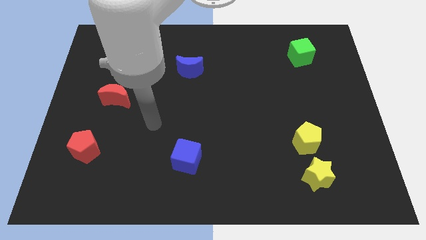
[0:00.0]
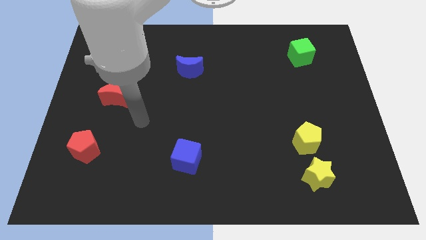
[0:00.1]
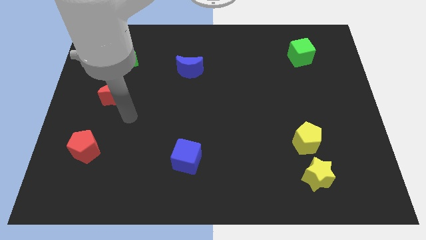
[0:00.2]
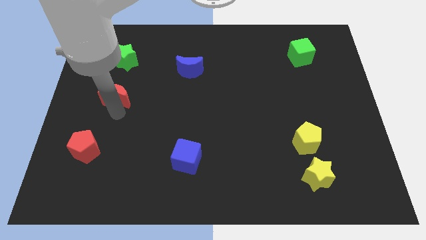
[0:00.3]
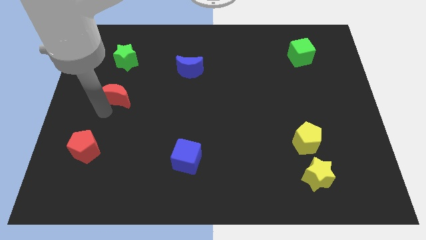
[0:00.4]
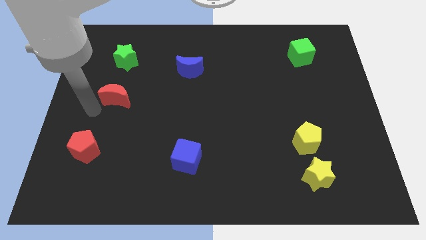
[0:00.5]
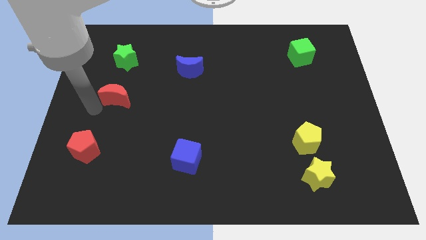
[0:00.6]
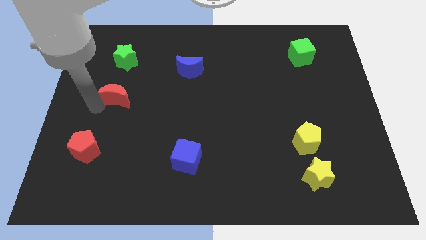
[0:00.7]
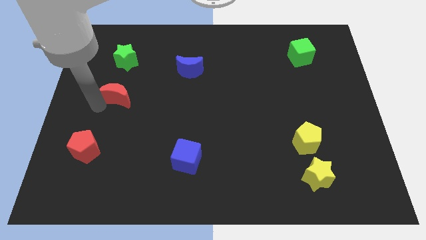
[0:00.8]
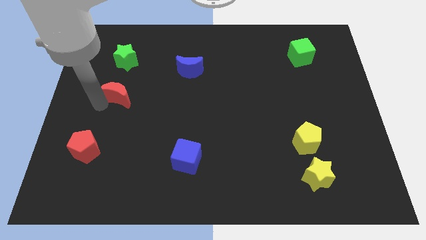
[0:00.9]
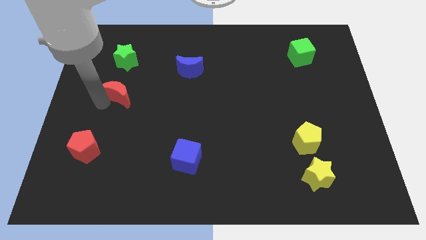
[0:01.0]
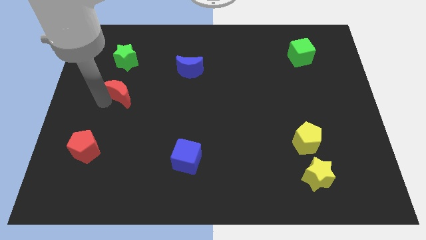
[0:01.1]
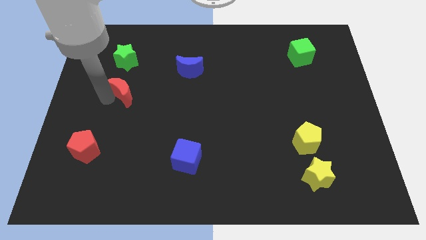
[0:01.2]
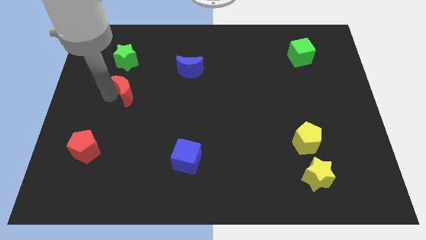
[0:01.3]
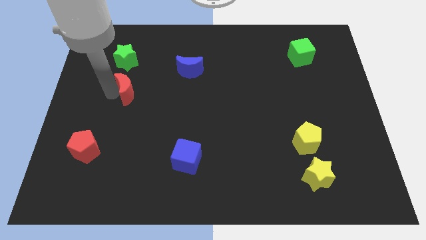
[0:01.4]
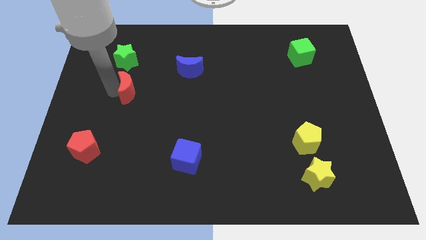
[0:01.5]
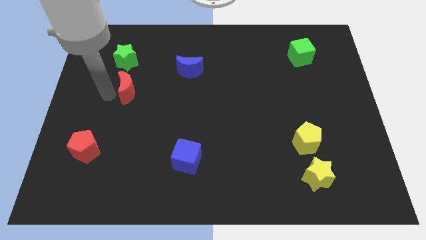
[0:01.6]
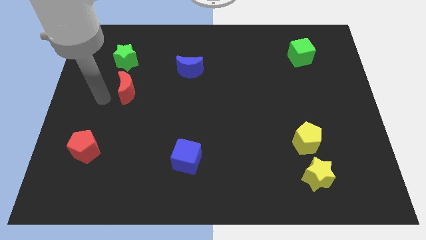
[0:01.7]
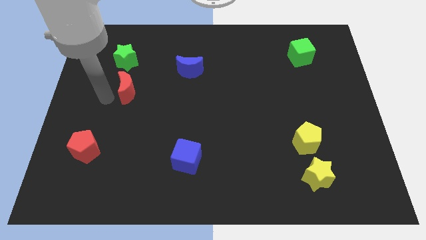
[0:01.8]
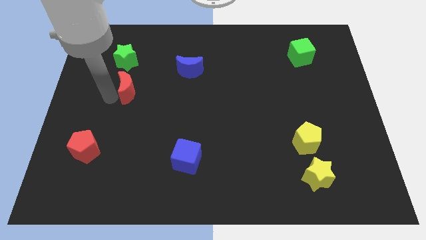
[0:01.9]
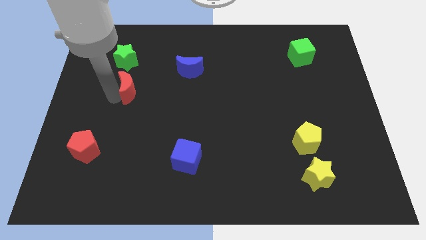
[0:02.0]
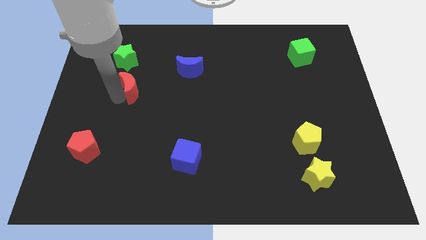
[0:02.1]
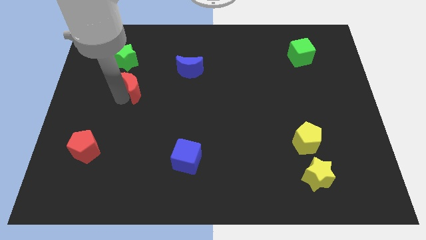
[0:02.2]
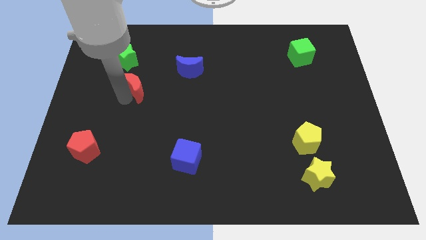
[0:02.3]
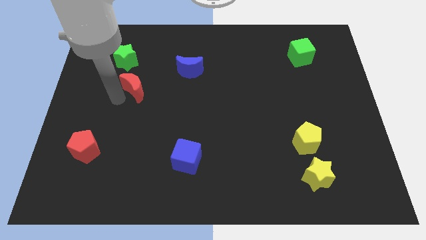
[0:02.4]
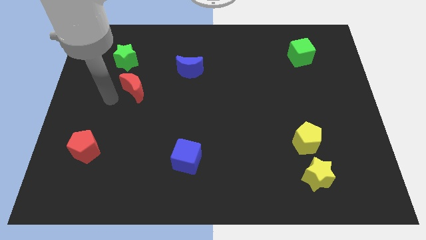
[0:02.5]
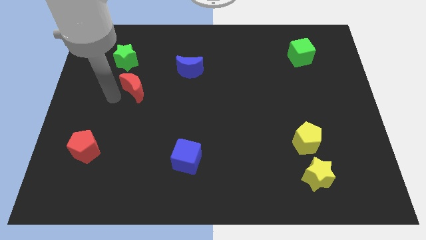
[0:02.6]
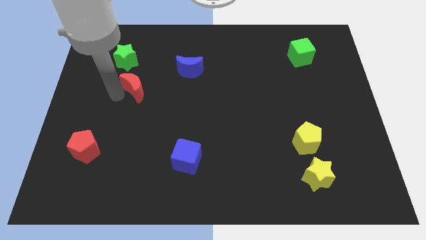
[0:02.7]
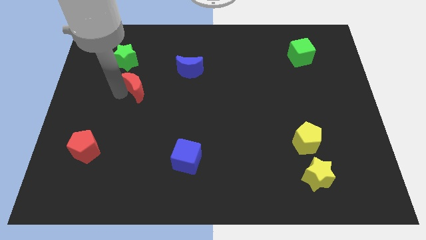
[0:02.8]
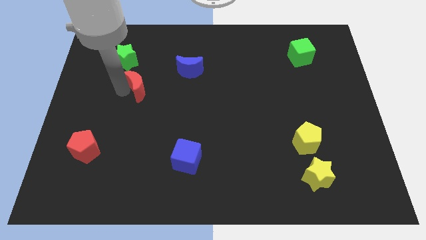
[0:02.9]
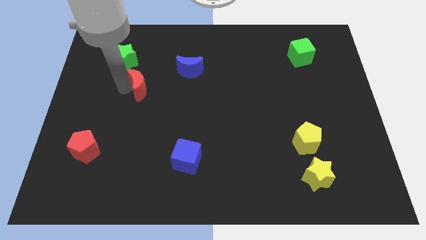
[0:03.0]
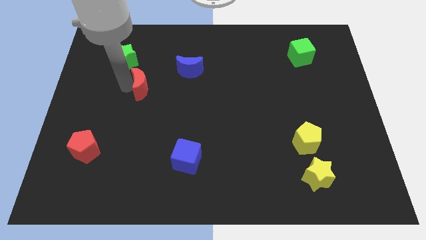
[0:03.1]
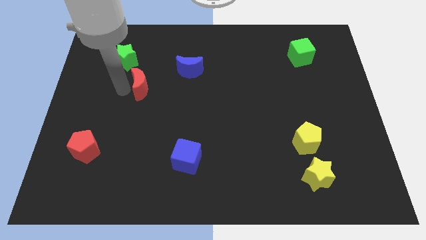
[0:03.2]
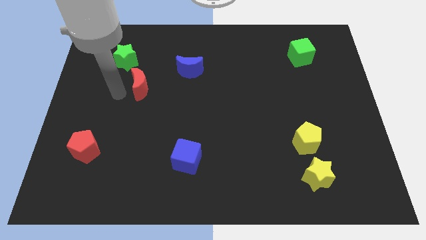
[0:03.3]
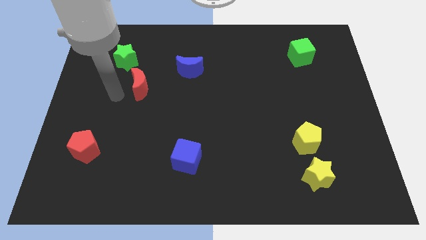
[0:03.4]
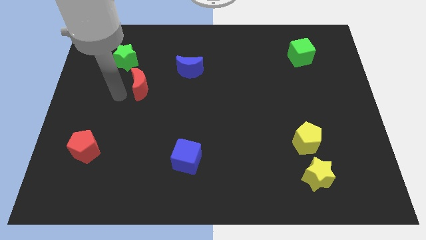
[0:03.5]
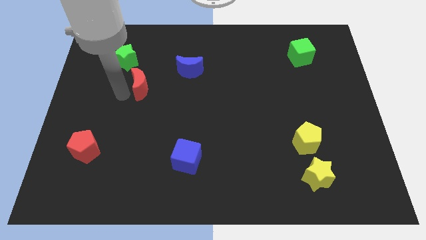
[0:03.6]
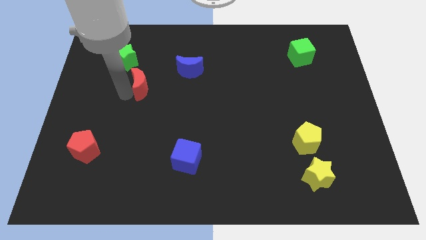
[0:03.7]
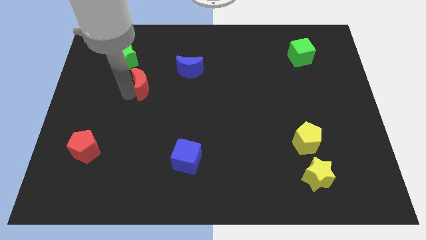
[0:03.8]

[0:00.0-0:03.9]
slightly slide the red moon upwards and to the right diagonally

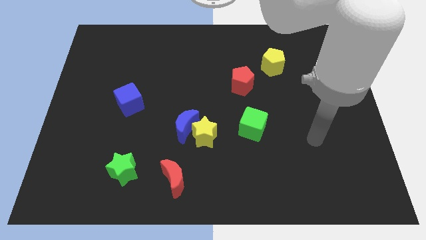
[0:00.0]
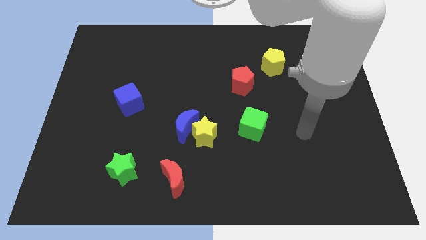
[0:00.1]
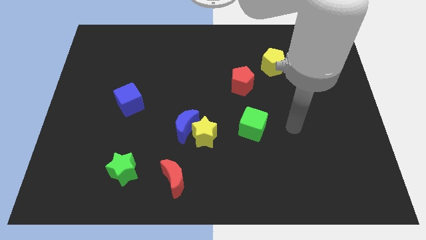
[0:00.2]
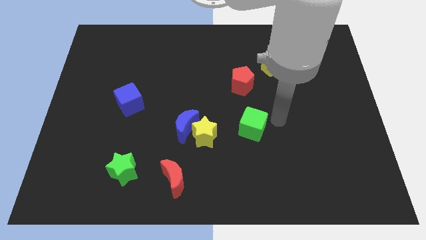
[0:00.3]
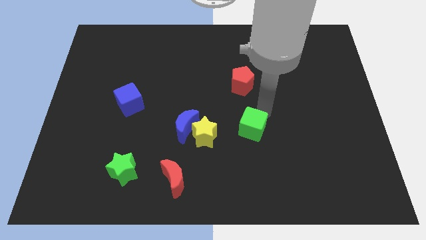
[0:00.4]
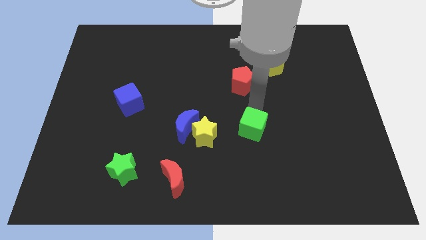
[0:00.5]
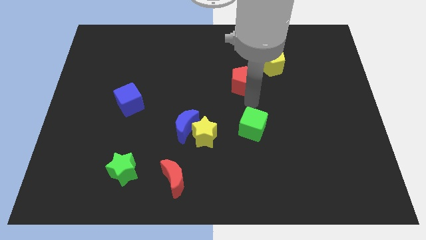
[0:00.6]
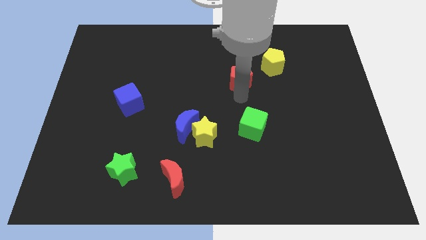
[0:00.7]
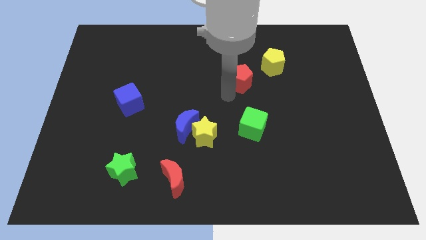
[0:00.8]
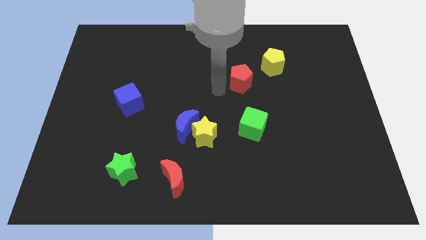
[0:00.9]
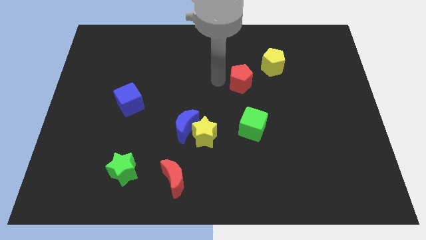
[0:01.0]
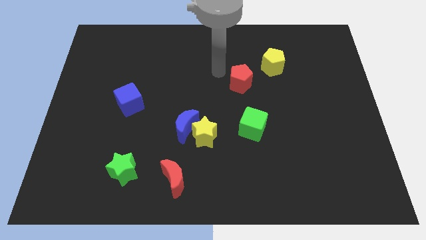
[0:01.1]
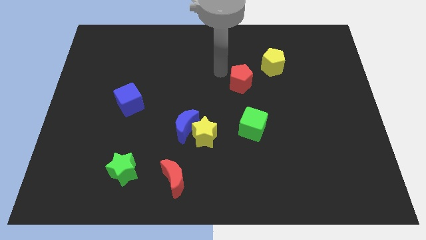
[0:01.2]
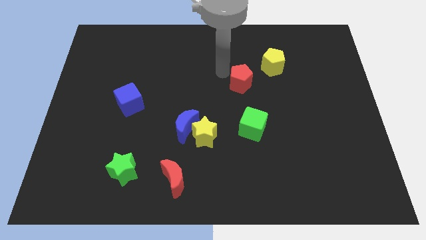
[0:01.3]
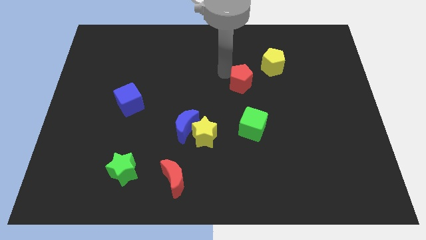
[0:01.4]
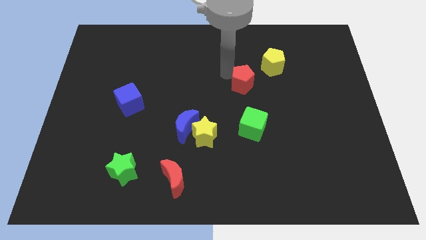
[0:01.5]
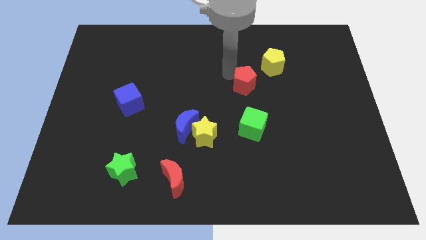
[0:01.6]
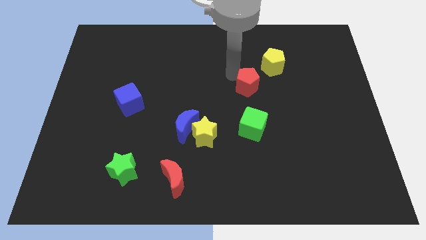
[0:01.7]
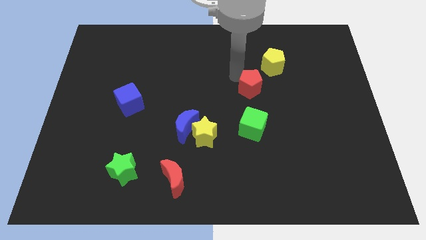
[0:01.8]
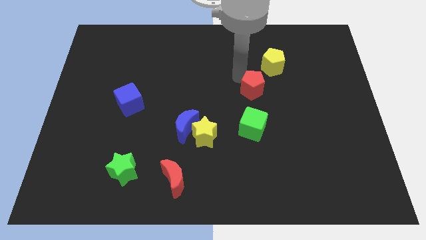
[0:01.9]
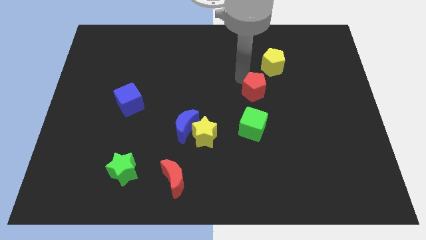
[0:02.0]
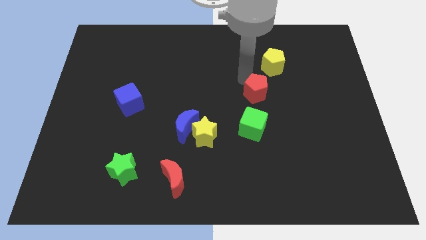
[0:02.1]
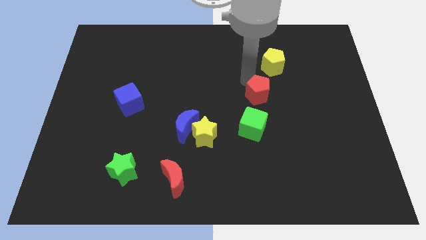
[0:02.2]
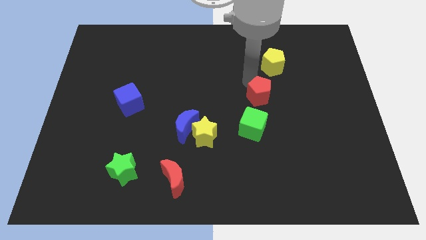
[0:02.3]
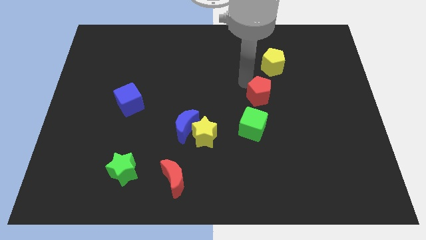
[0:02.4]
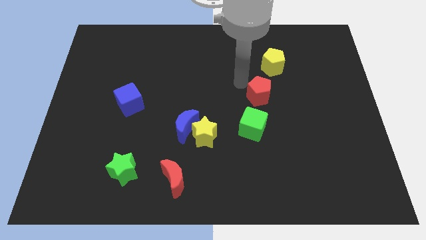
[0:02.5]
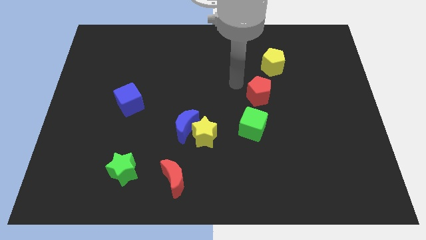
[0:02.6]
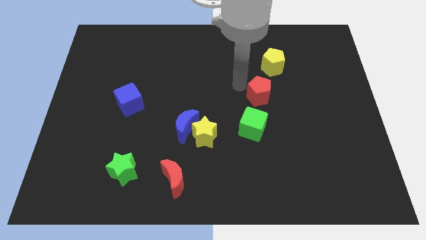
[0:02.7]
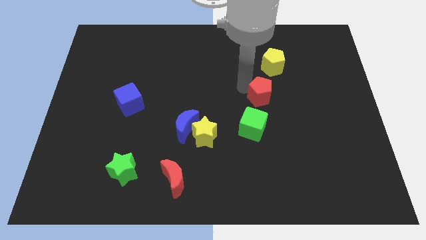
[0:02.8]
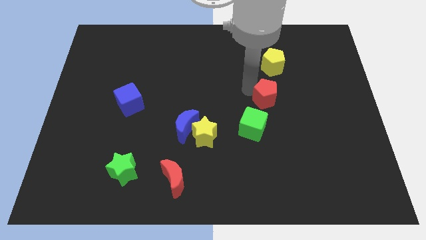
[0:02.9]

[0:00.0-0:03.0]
push the red pentagon downwards and then right a little

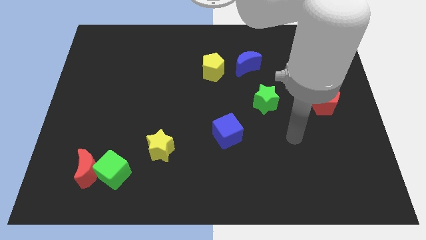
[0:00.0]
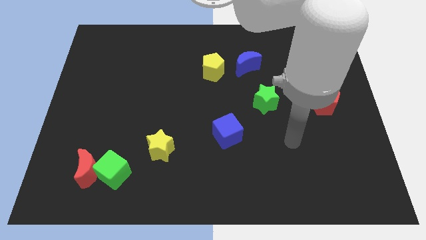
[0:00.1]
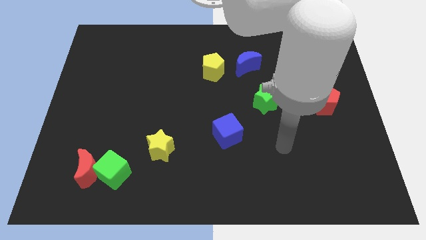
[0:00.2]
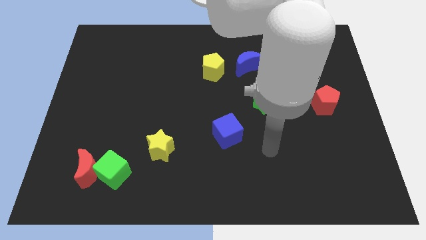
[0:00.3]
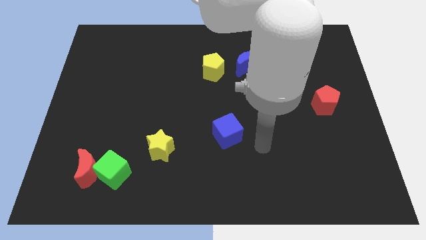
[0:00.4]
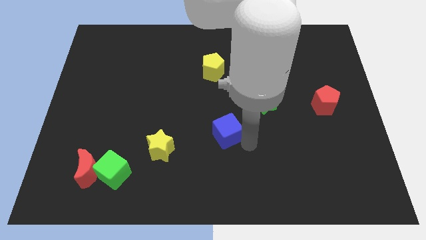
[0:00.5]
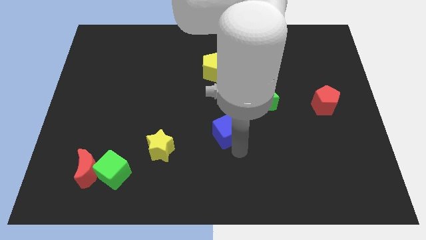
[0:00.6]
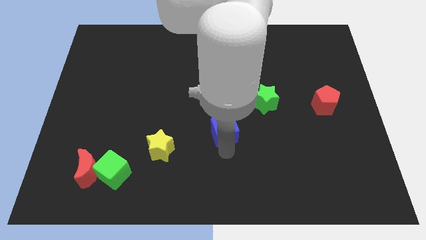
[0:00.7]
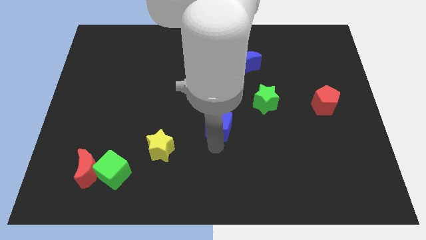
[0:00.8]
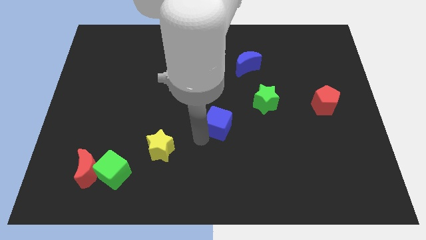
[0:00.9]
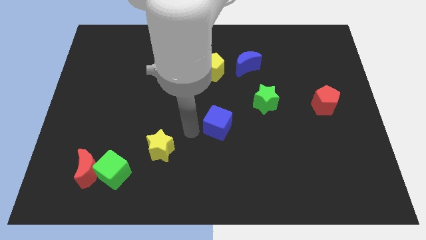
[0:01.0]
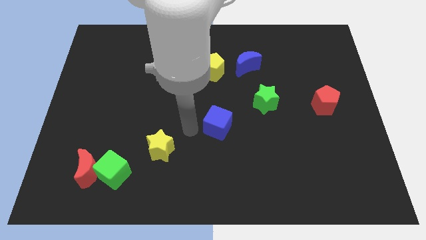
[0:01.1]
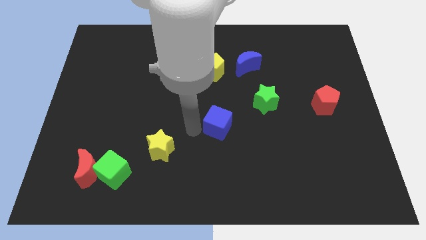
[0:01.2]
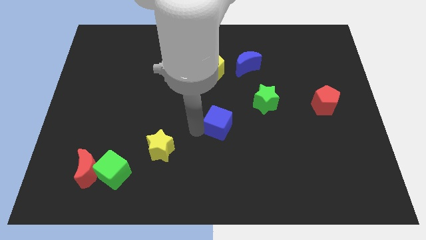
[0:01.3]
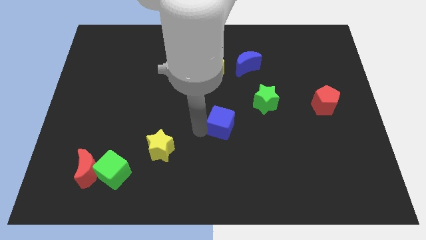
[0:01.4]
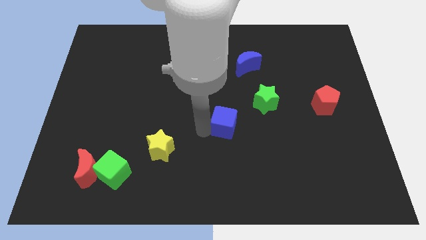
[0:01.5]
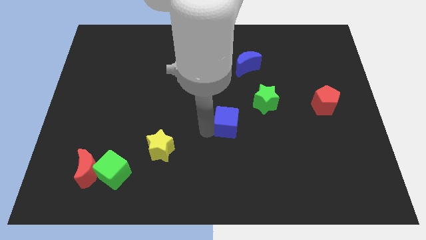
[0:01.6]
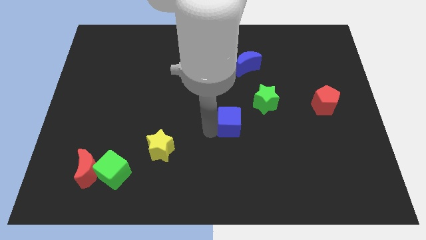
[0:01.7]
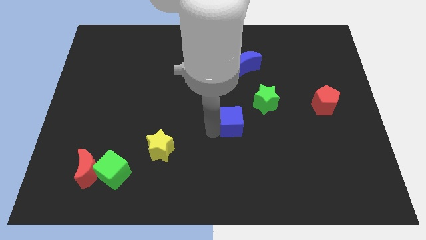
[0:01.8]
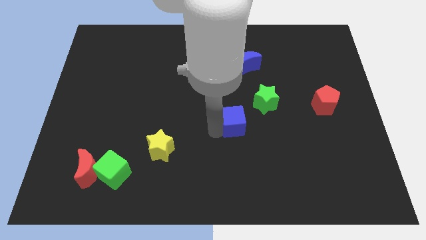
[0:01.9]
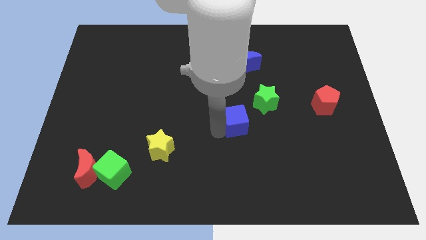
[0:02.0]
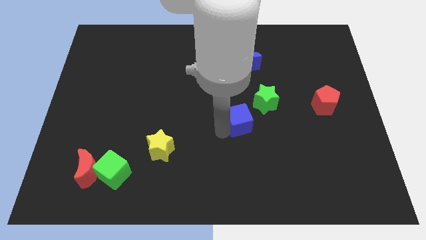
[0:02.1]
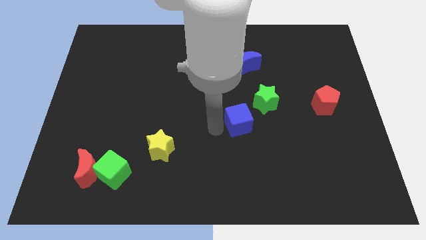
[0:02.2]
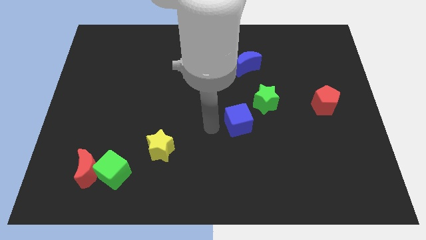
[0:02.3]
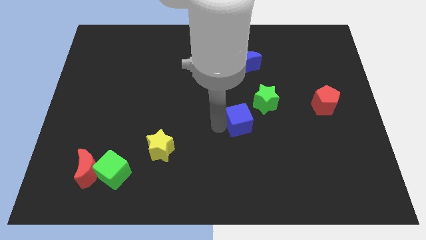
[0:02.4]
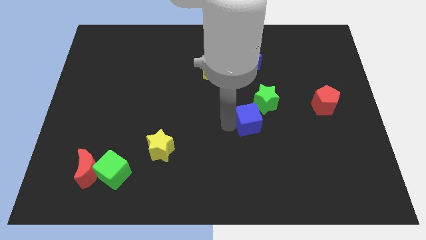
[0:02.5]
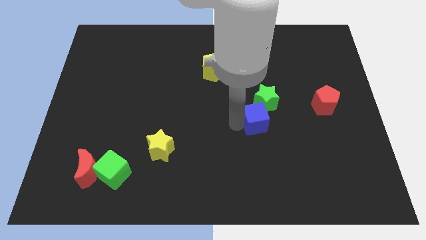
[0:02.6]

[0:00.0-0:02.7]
slide the blue cube upwards and right diagonally somewhat
